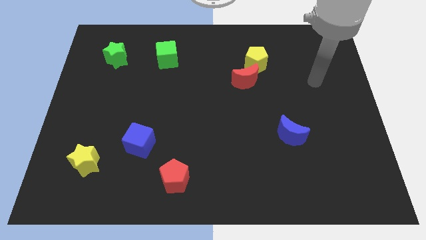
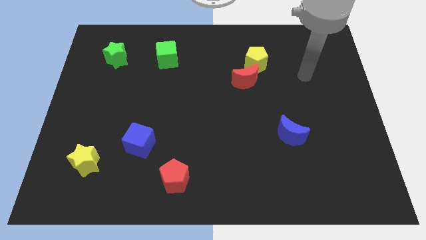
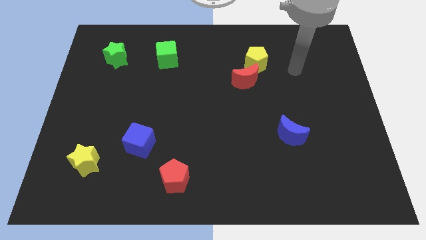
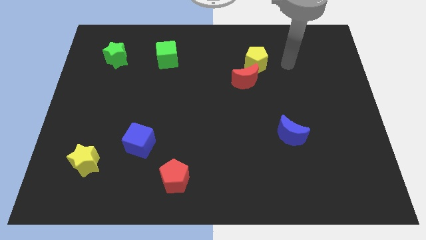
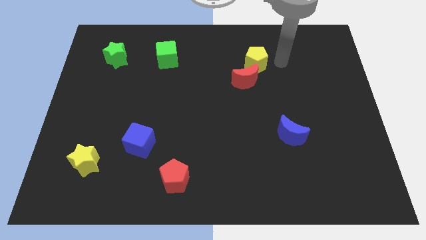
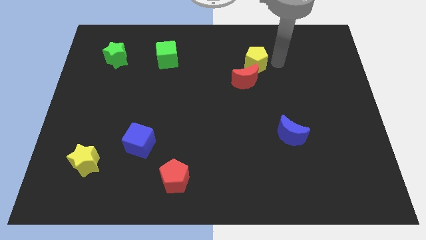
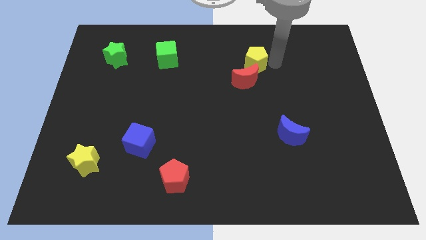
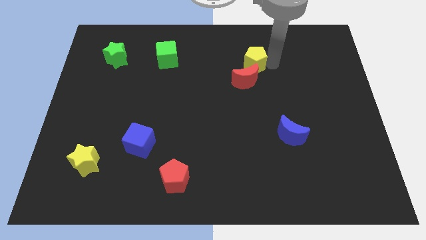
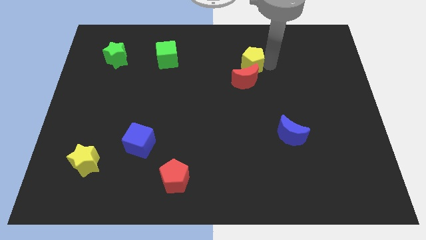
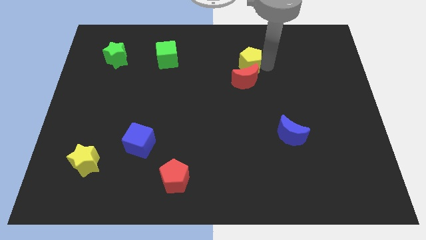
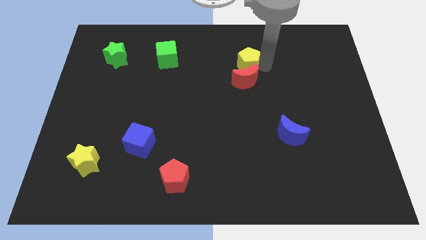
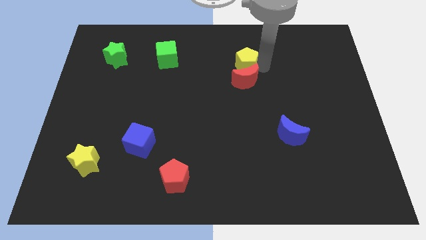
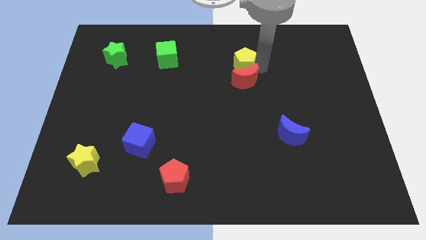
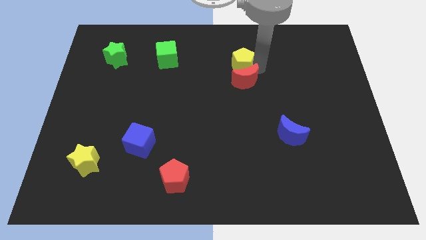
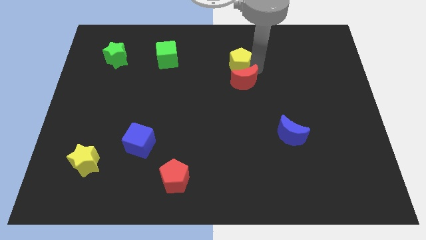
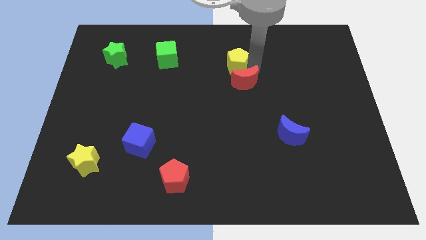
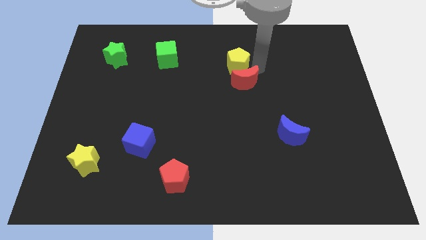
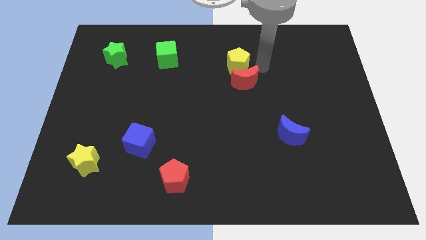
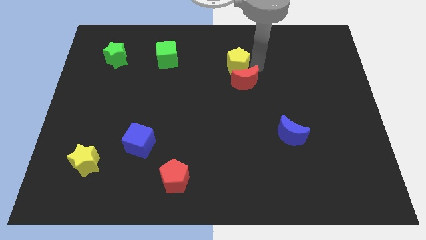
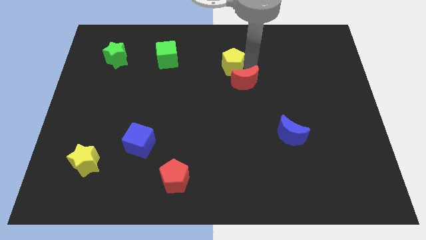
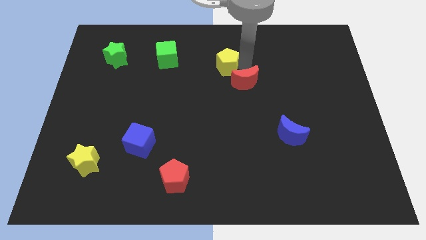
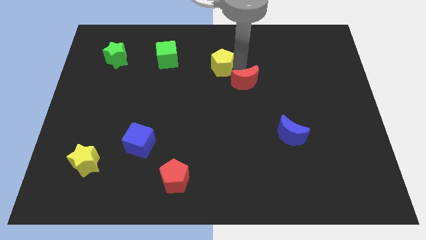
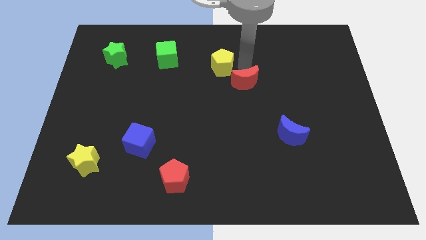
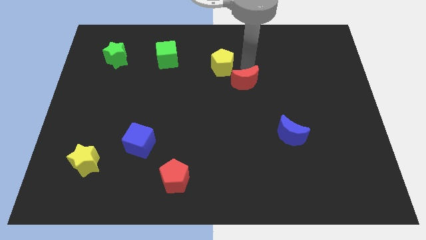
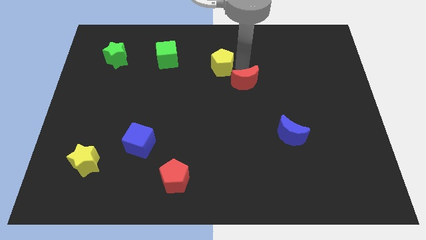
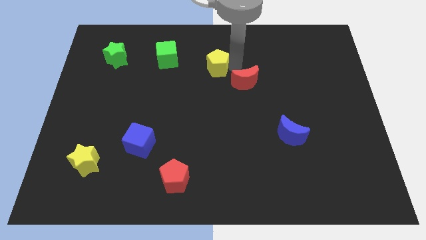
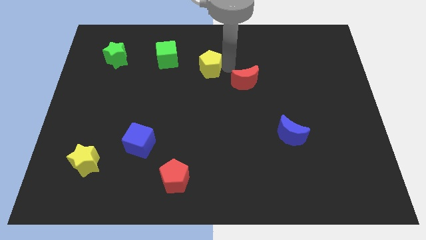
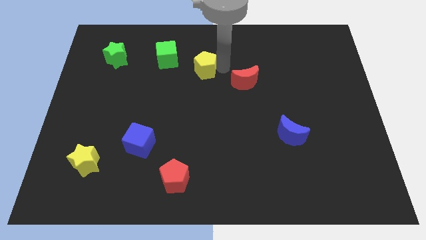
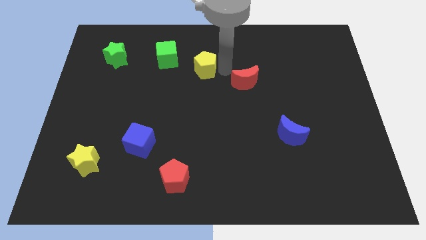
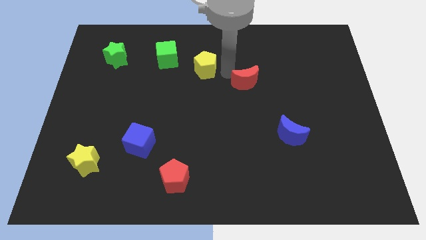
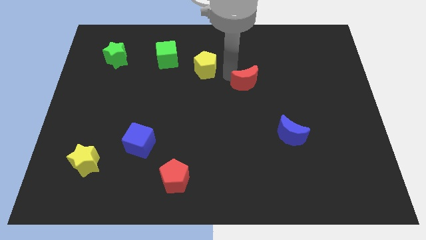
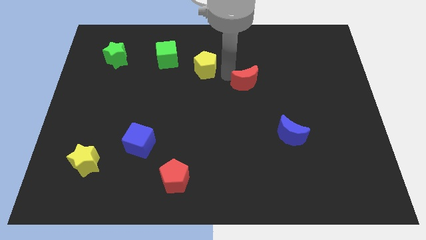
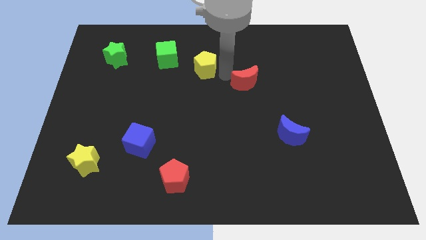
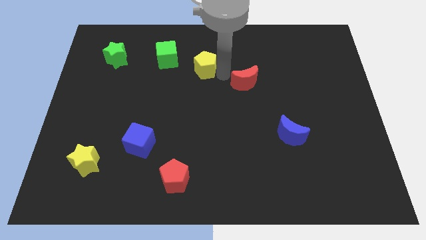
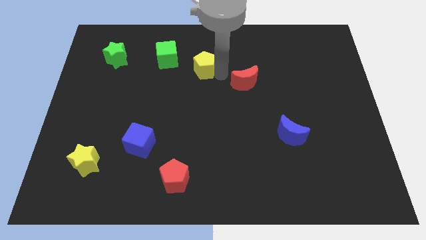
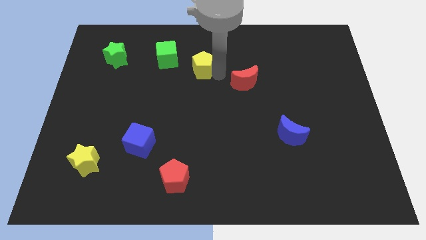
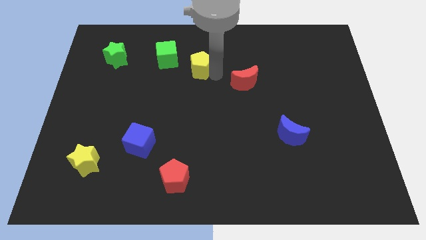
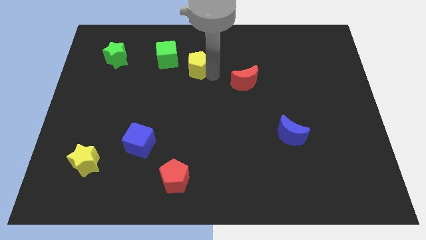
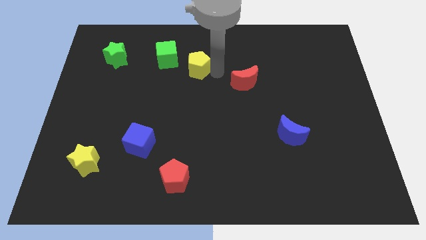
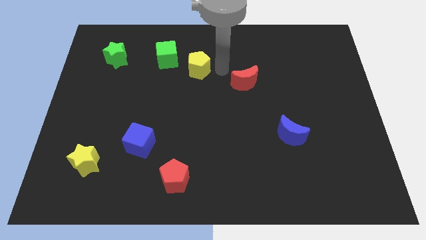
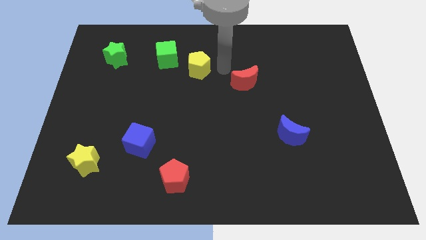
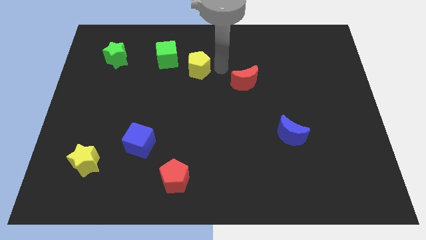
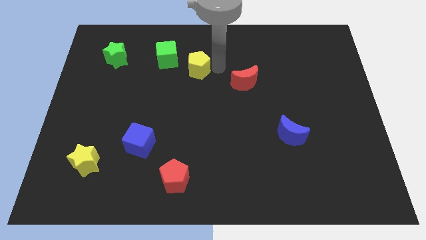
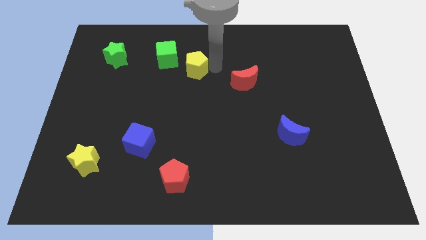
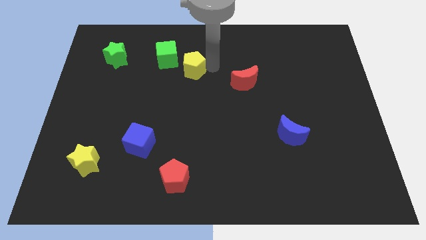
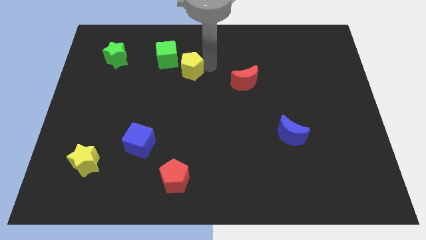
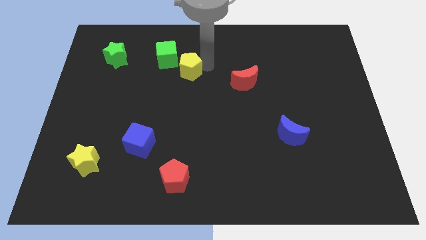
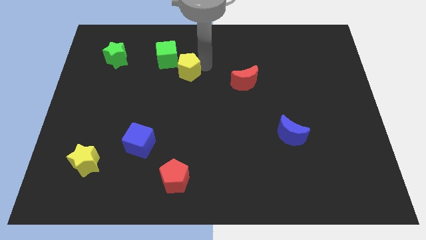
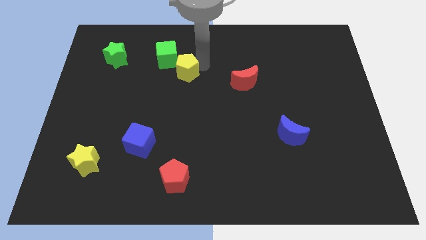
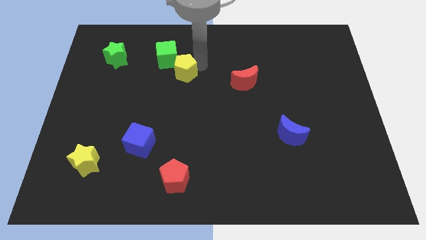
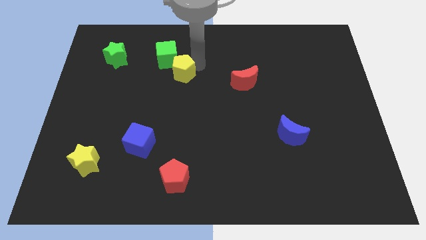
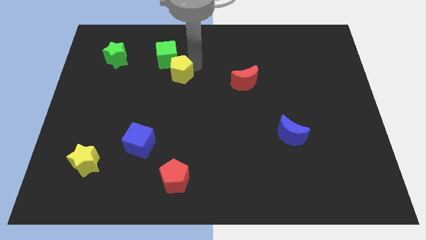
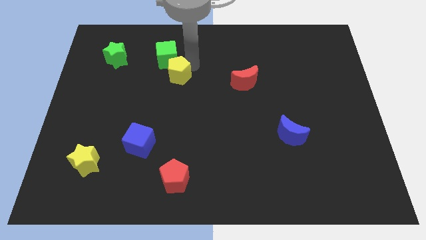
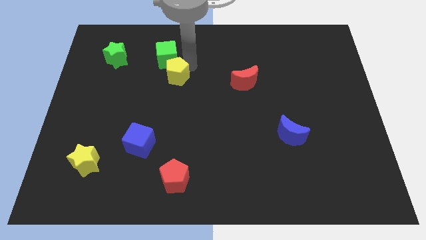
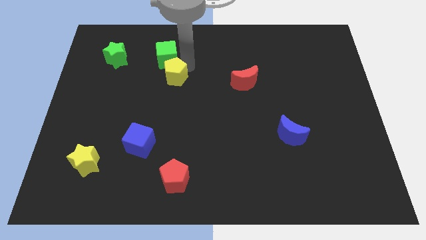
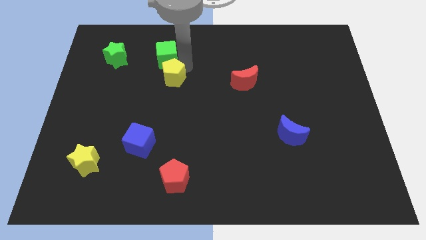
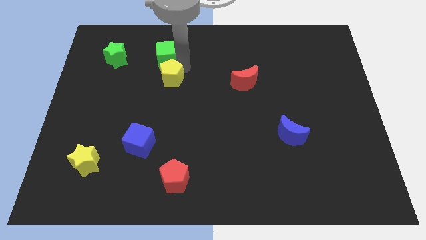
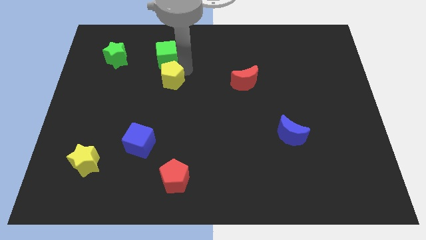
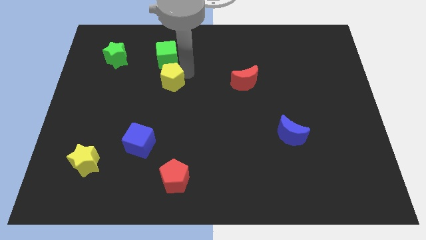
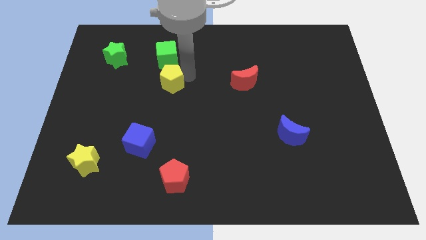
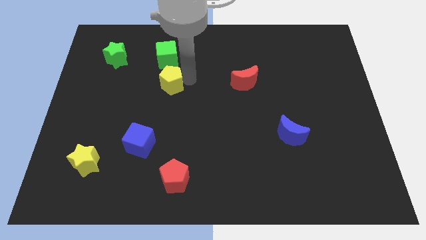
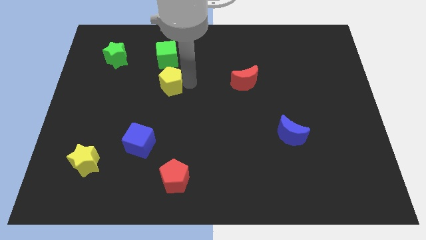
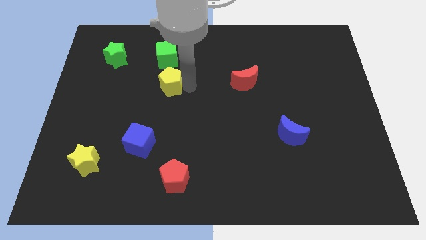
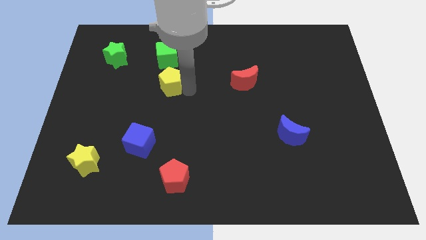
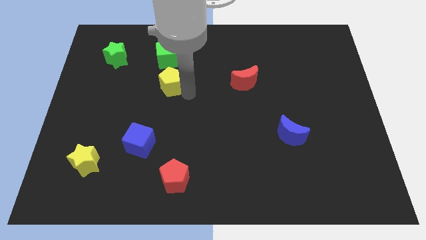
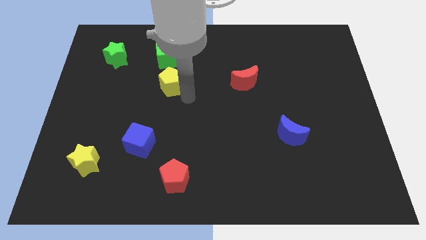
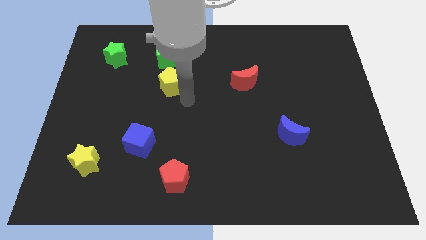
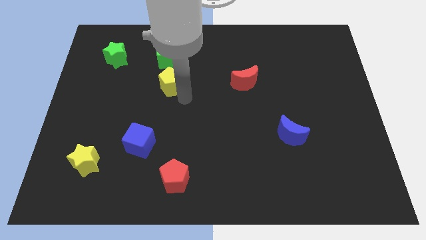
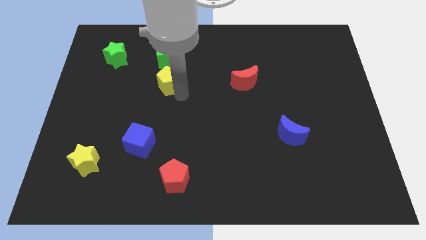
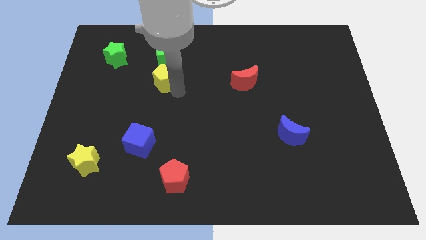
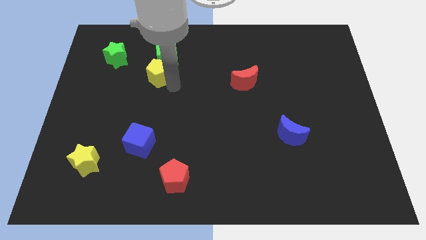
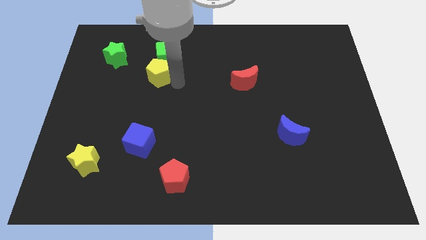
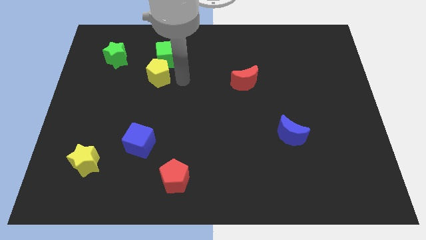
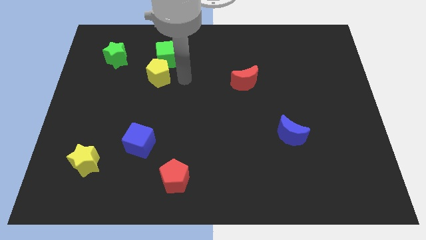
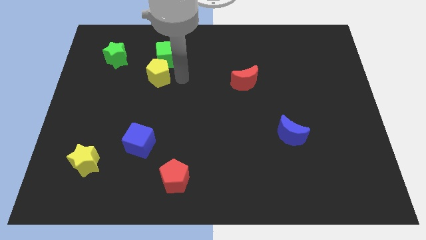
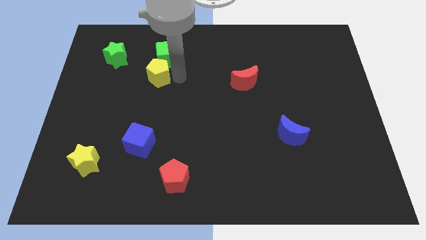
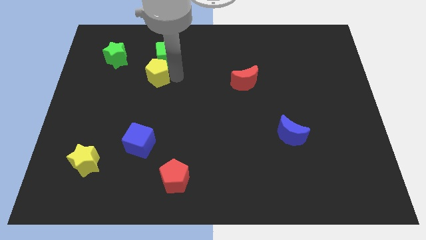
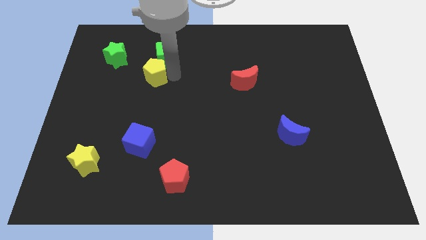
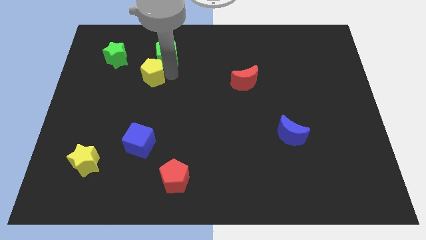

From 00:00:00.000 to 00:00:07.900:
move the yellow pentagon to the bottom right of the green star
